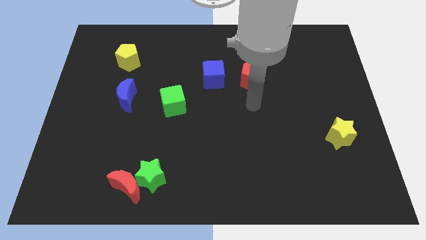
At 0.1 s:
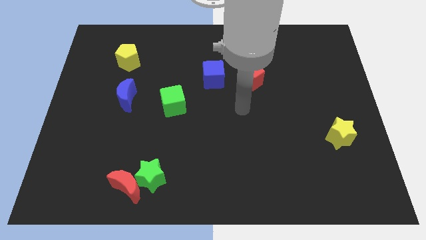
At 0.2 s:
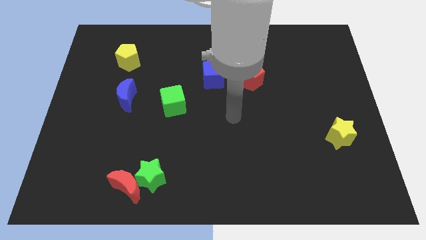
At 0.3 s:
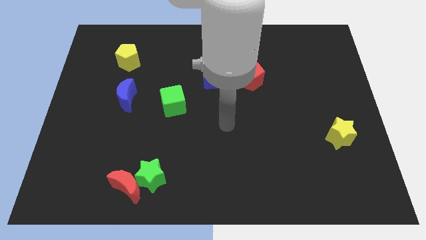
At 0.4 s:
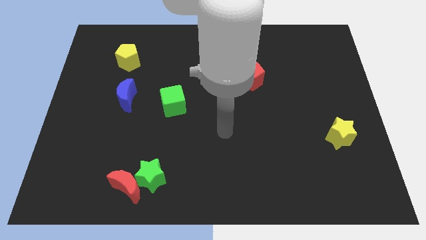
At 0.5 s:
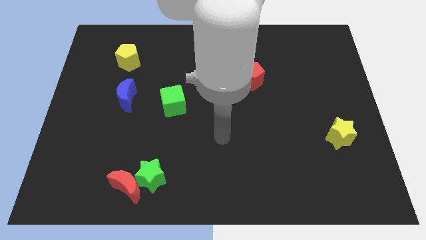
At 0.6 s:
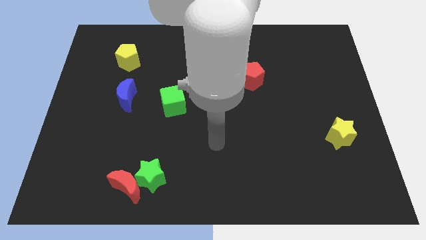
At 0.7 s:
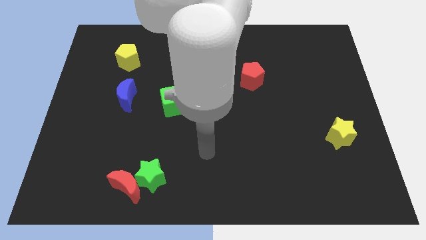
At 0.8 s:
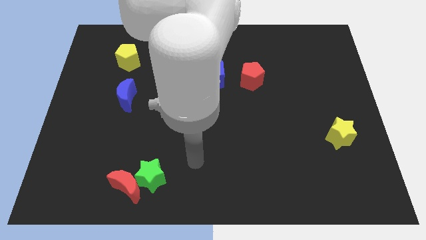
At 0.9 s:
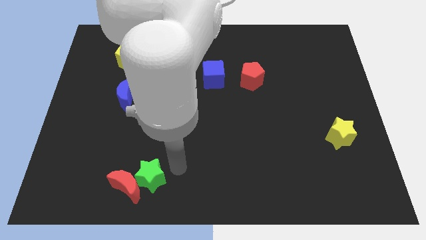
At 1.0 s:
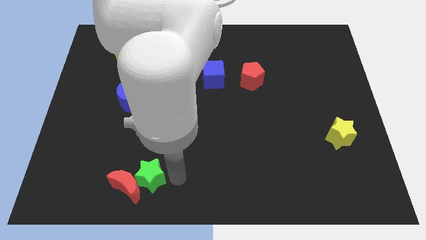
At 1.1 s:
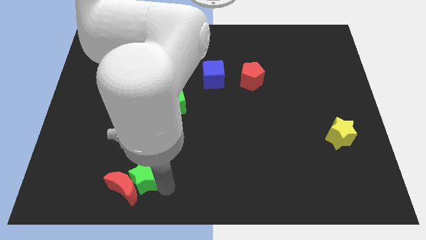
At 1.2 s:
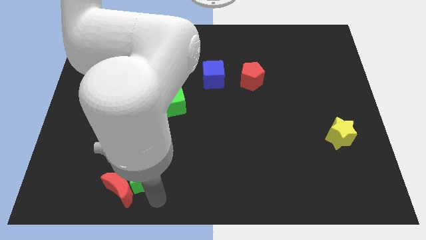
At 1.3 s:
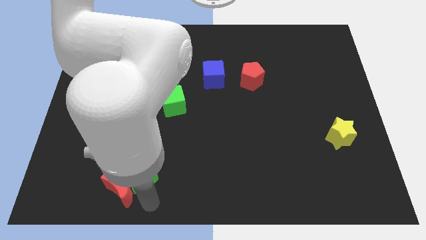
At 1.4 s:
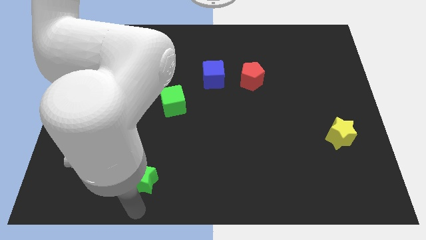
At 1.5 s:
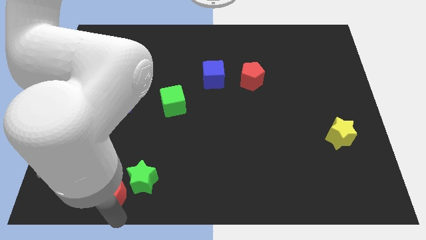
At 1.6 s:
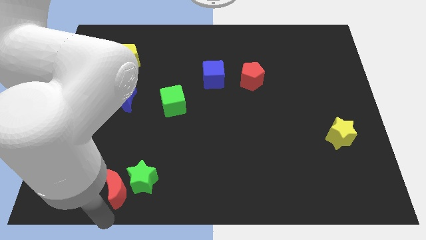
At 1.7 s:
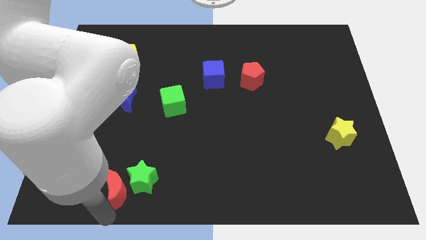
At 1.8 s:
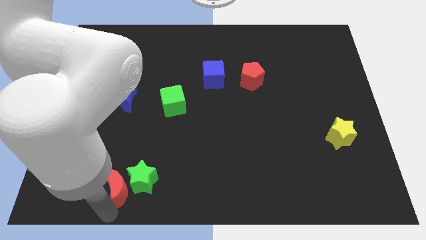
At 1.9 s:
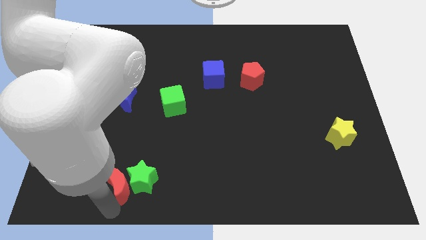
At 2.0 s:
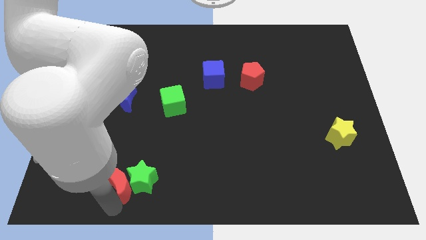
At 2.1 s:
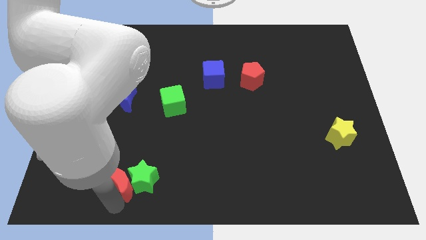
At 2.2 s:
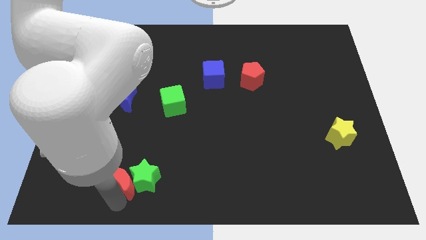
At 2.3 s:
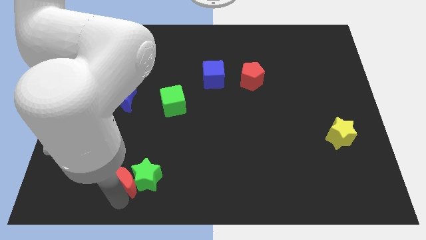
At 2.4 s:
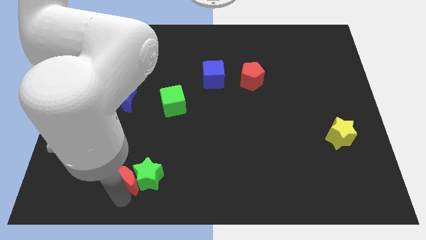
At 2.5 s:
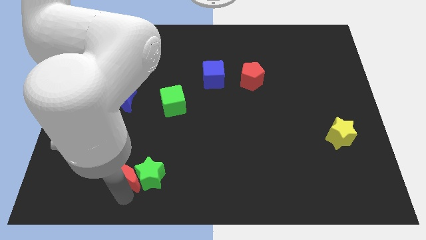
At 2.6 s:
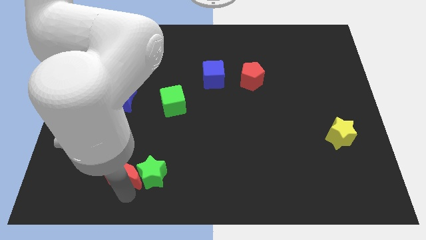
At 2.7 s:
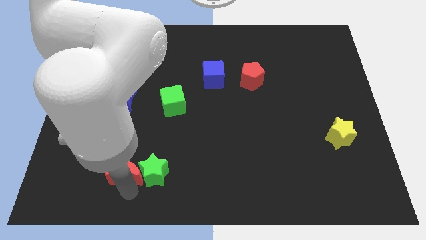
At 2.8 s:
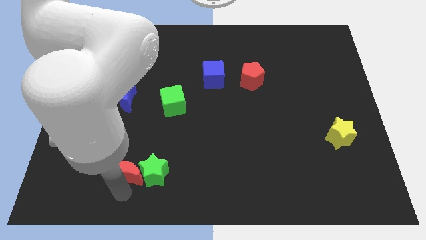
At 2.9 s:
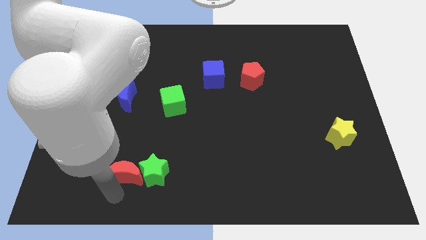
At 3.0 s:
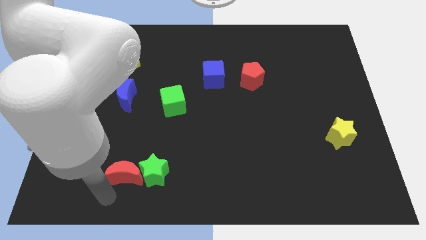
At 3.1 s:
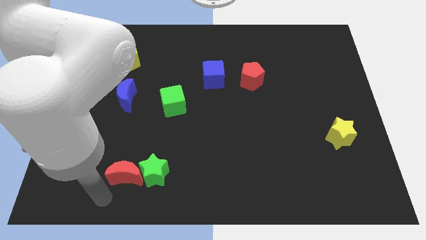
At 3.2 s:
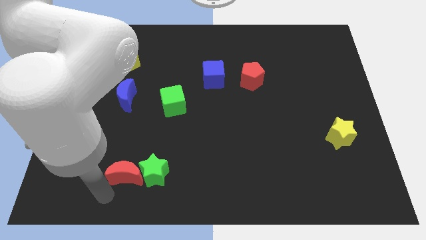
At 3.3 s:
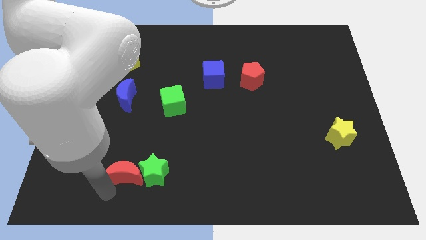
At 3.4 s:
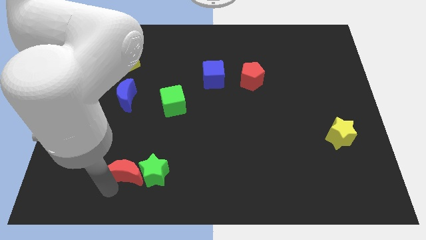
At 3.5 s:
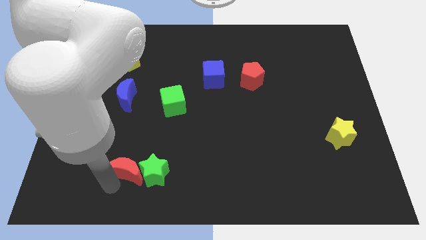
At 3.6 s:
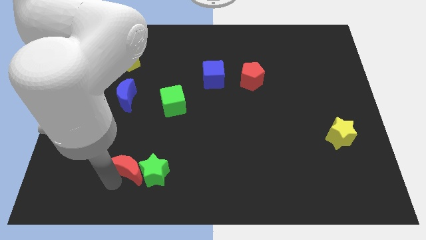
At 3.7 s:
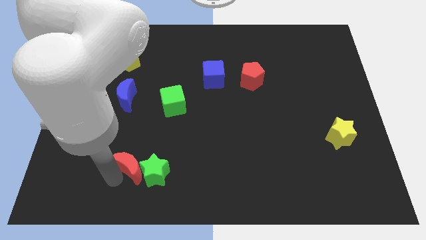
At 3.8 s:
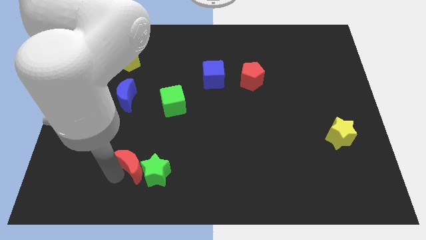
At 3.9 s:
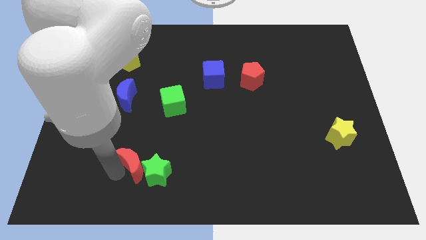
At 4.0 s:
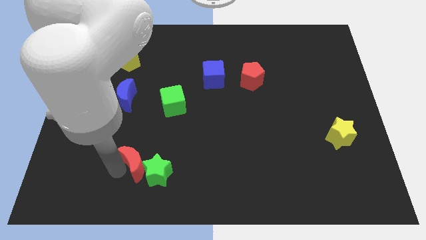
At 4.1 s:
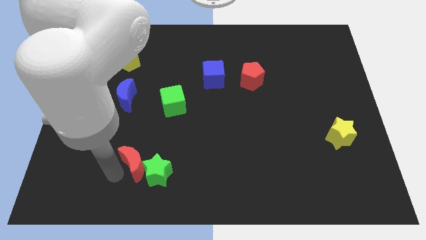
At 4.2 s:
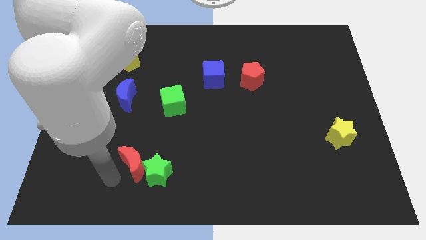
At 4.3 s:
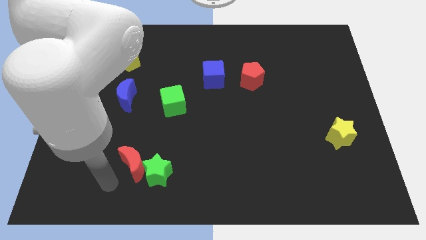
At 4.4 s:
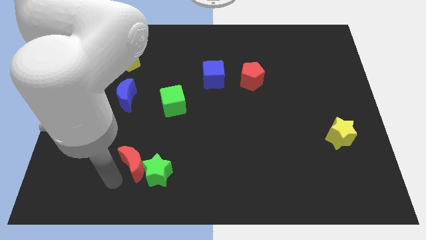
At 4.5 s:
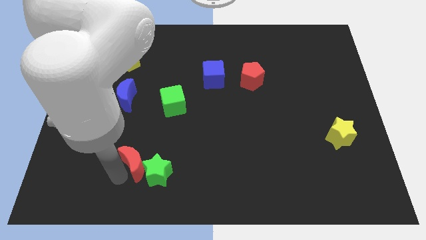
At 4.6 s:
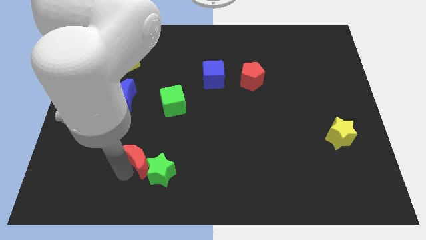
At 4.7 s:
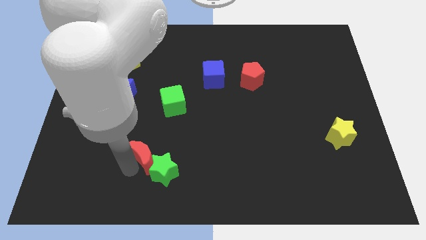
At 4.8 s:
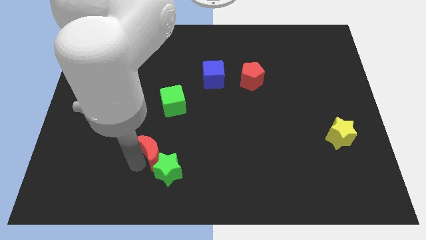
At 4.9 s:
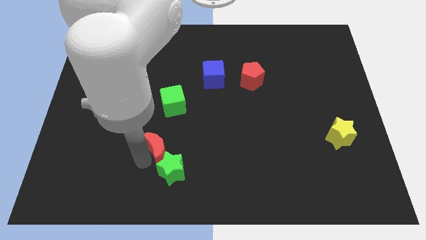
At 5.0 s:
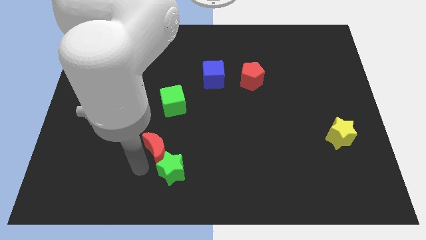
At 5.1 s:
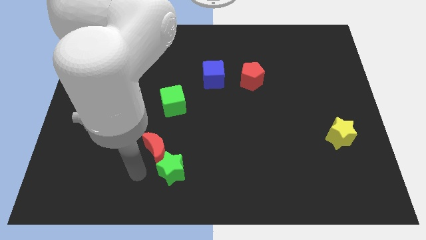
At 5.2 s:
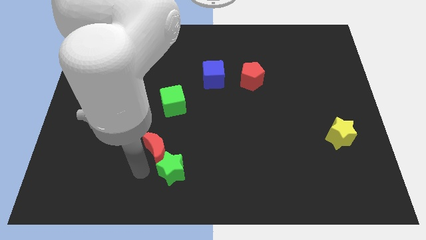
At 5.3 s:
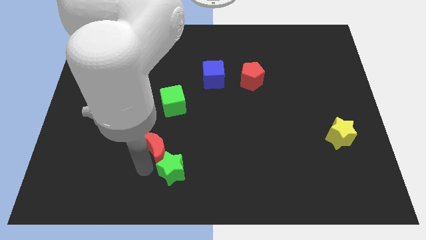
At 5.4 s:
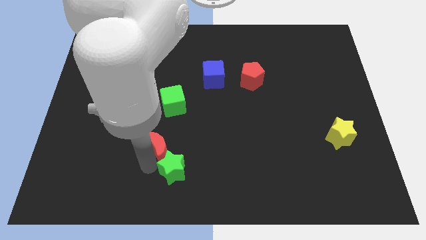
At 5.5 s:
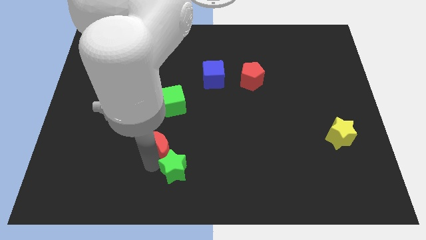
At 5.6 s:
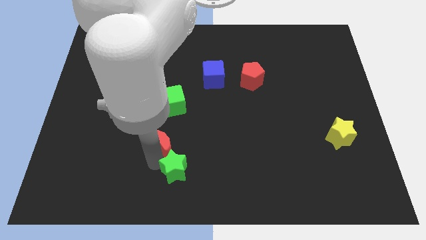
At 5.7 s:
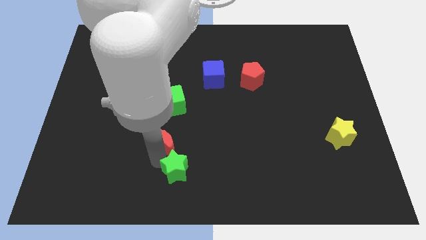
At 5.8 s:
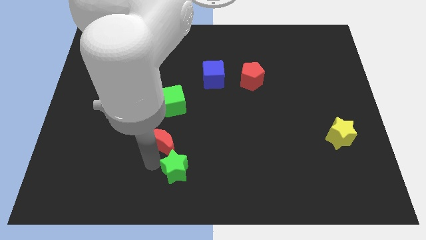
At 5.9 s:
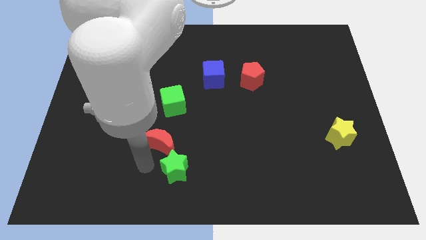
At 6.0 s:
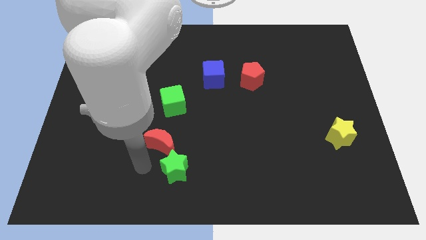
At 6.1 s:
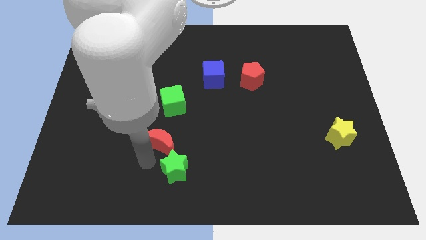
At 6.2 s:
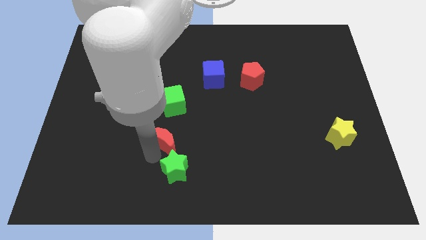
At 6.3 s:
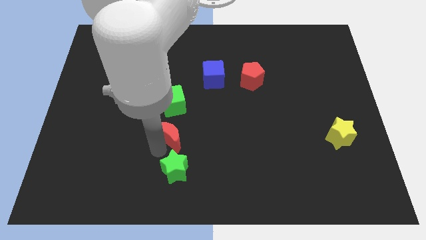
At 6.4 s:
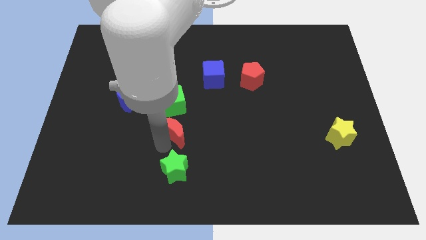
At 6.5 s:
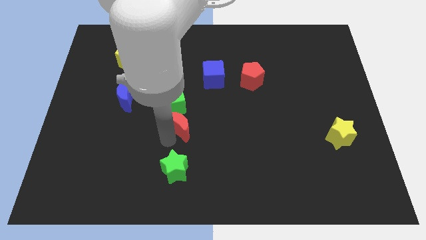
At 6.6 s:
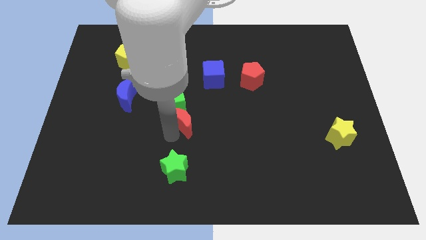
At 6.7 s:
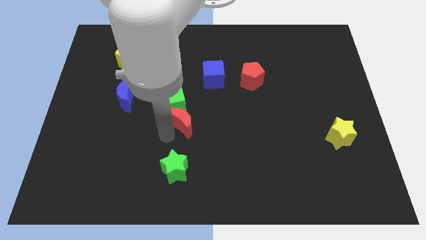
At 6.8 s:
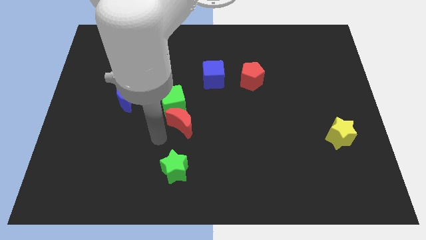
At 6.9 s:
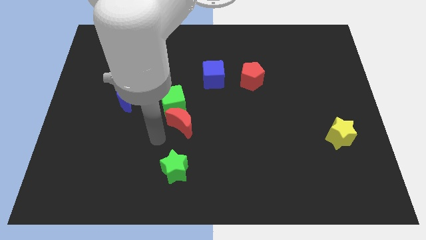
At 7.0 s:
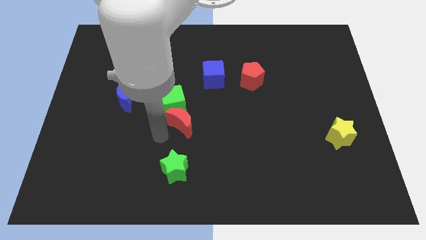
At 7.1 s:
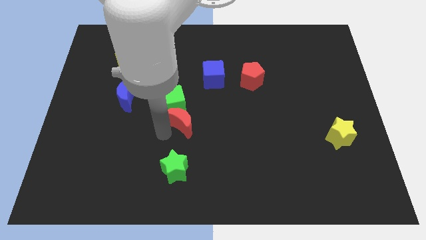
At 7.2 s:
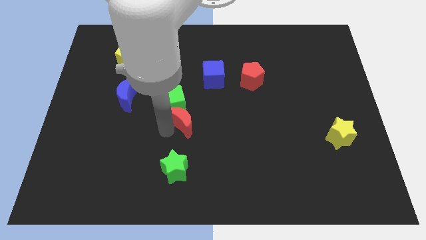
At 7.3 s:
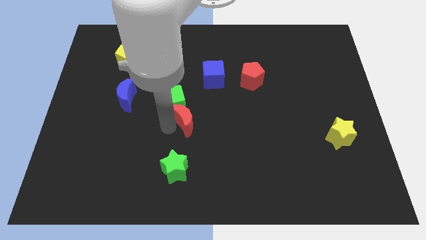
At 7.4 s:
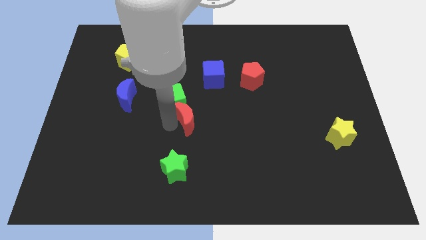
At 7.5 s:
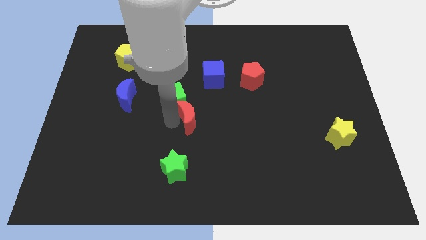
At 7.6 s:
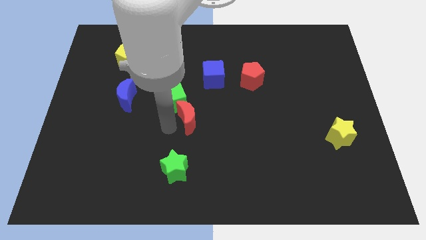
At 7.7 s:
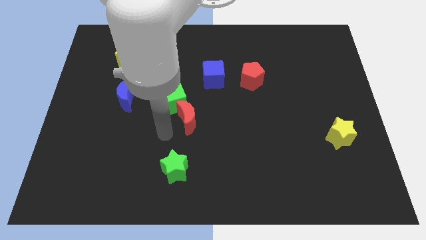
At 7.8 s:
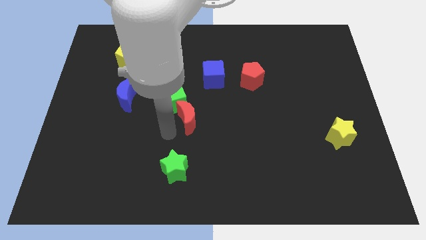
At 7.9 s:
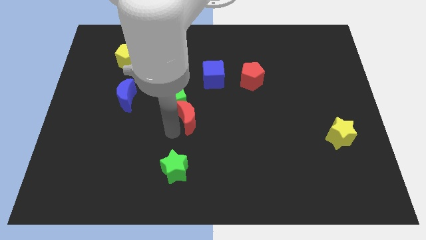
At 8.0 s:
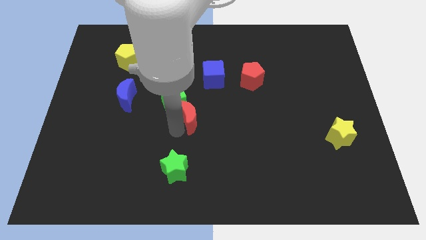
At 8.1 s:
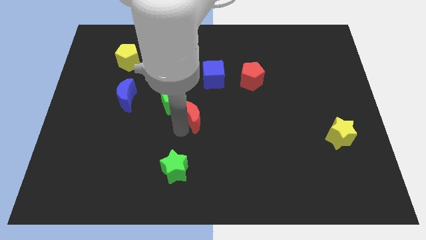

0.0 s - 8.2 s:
move the red moon right of the green cube
